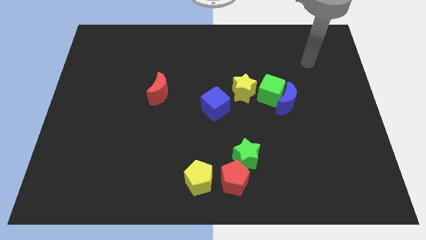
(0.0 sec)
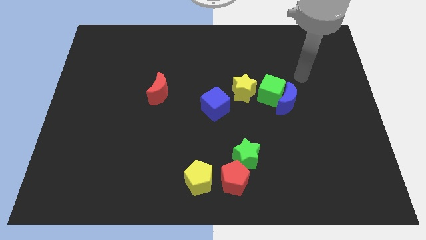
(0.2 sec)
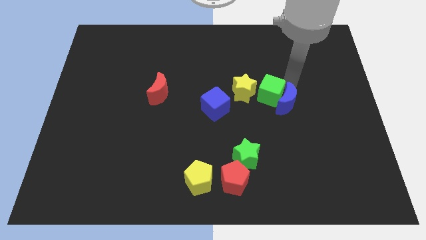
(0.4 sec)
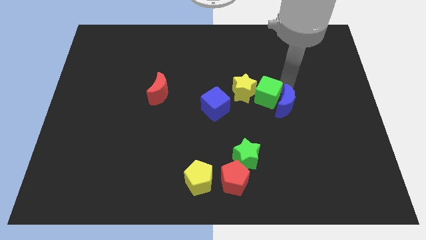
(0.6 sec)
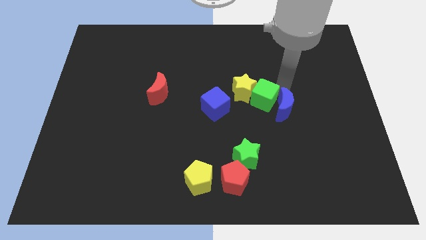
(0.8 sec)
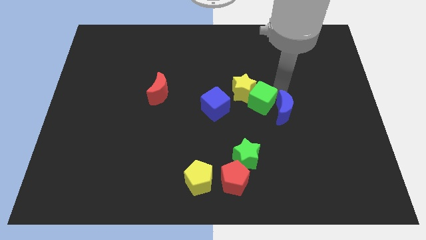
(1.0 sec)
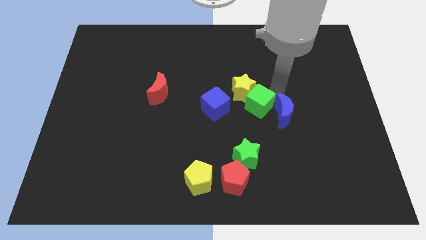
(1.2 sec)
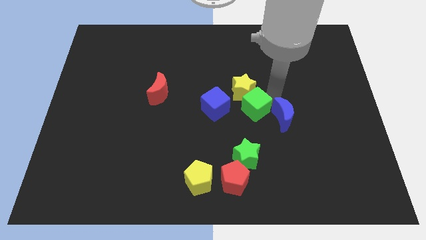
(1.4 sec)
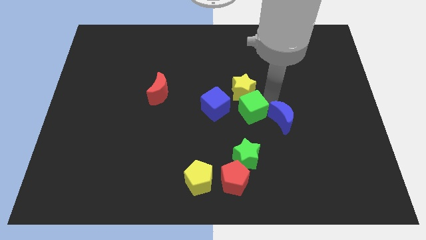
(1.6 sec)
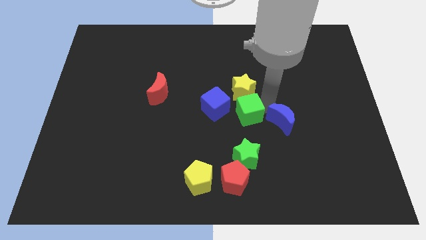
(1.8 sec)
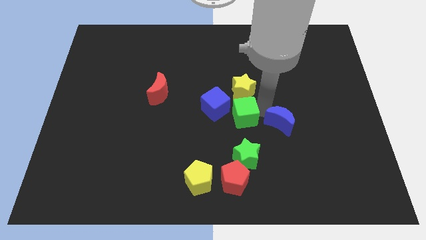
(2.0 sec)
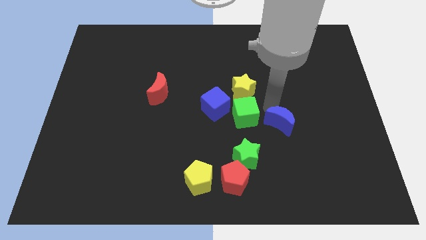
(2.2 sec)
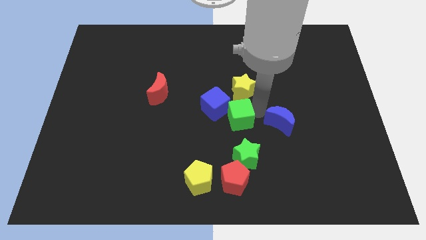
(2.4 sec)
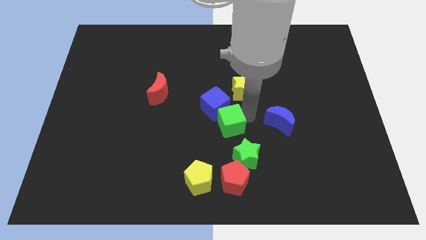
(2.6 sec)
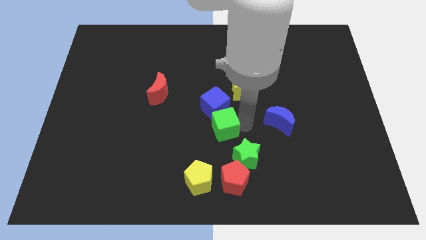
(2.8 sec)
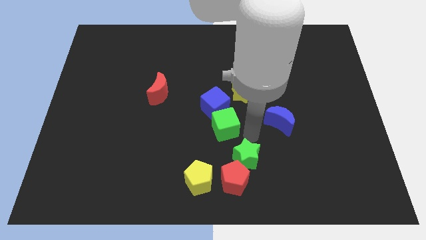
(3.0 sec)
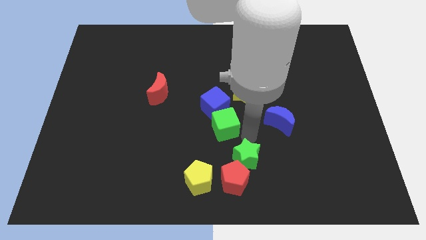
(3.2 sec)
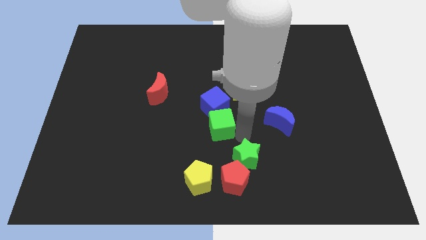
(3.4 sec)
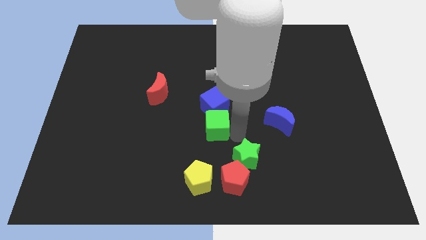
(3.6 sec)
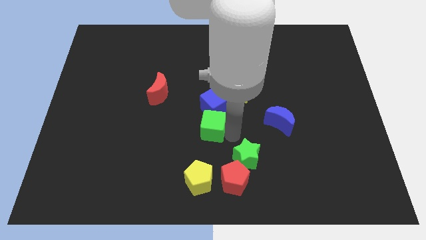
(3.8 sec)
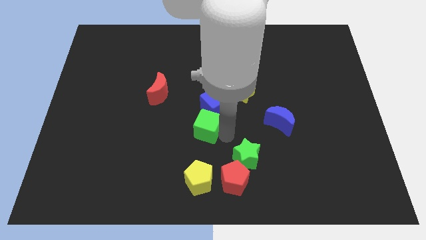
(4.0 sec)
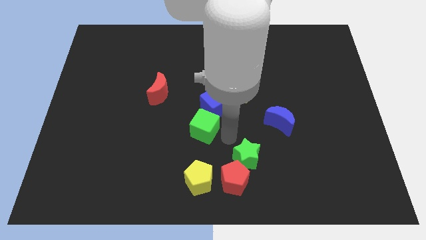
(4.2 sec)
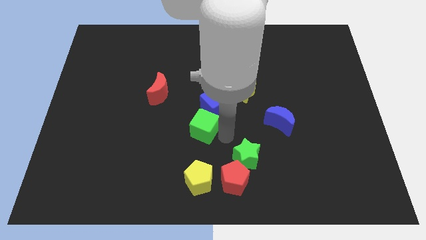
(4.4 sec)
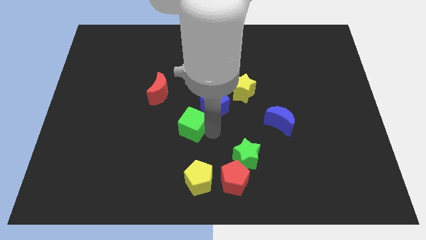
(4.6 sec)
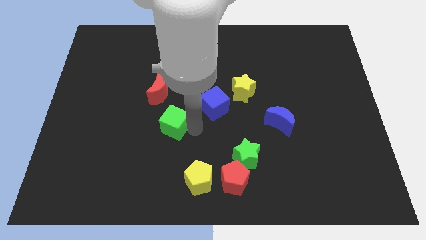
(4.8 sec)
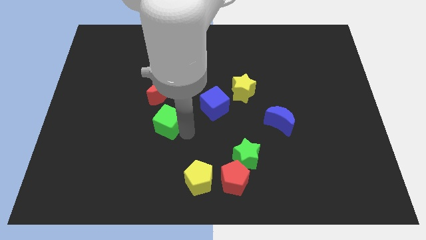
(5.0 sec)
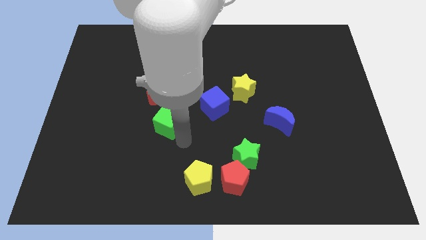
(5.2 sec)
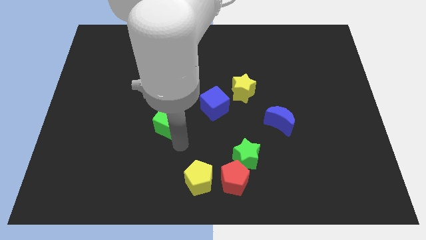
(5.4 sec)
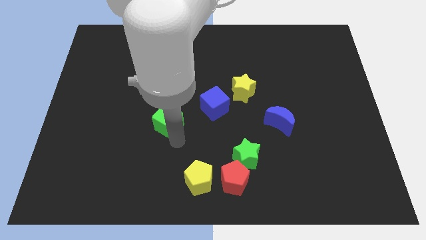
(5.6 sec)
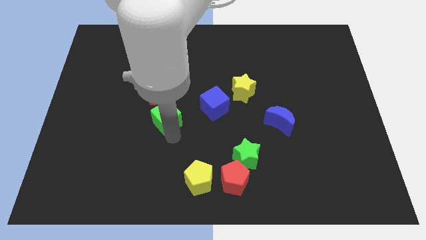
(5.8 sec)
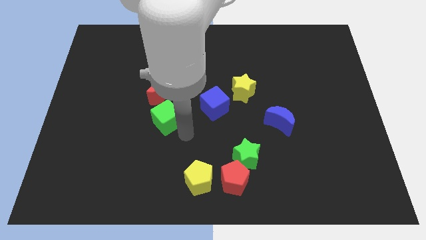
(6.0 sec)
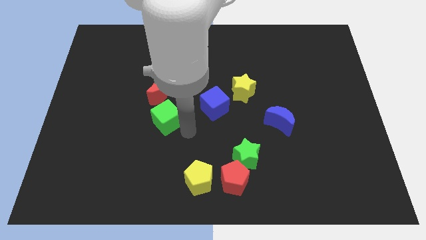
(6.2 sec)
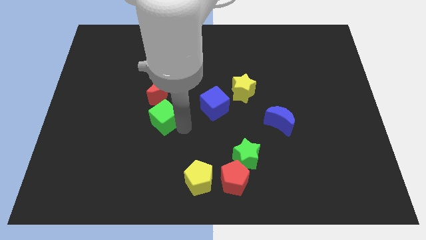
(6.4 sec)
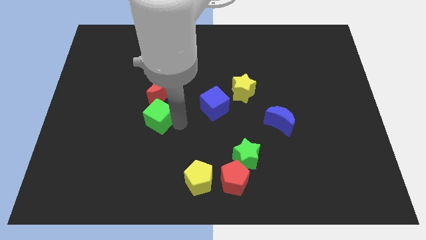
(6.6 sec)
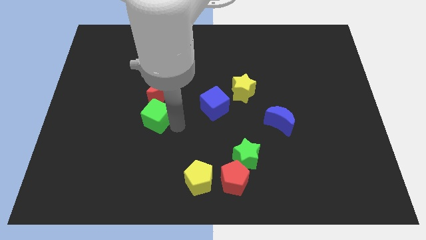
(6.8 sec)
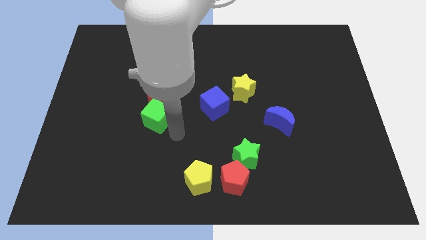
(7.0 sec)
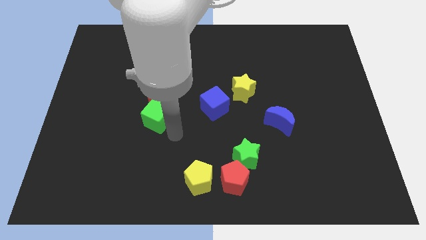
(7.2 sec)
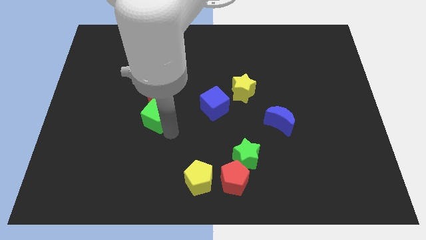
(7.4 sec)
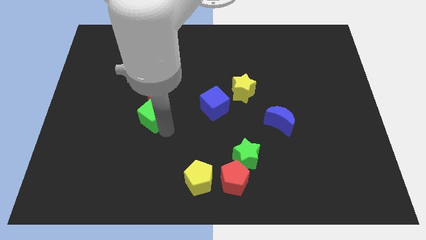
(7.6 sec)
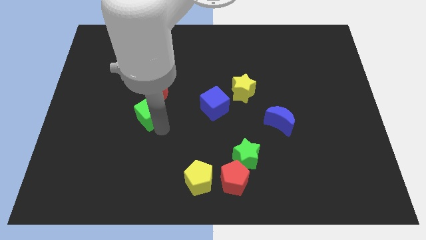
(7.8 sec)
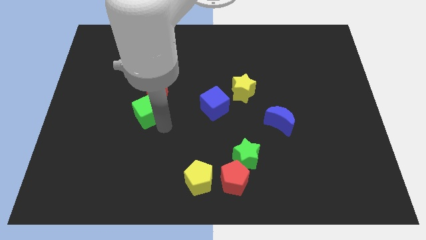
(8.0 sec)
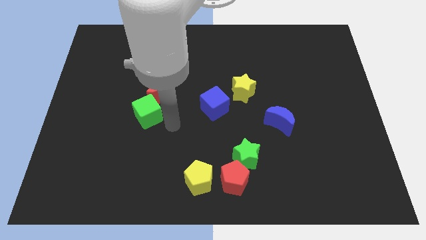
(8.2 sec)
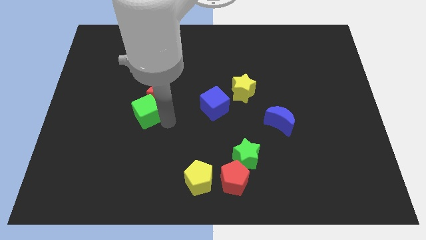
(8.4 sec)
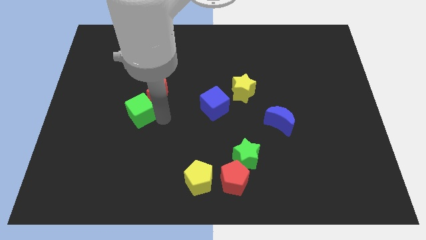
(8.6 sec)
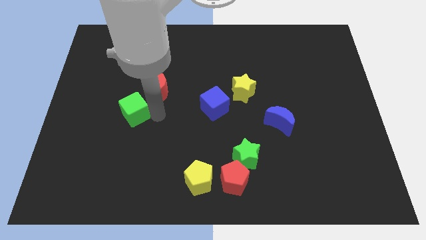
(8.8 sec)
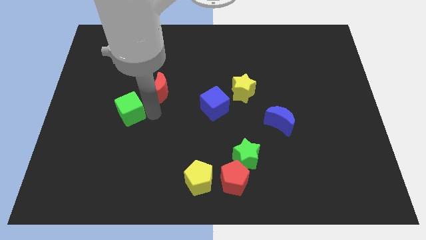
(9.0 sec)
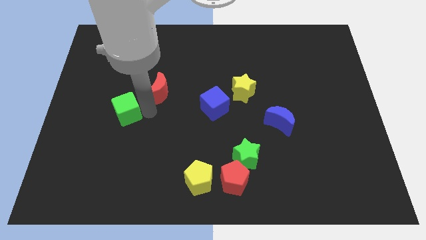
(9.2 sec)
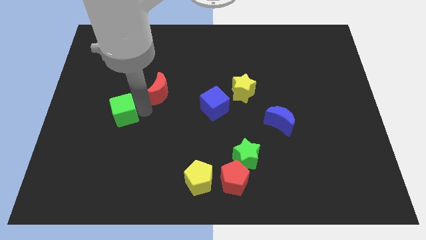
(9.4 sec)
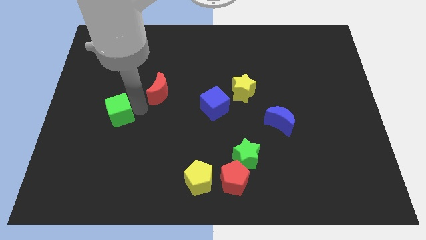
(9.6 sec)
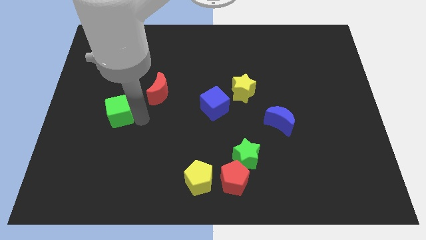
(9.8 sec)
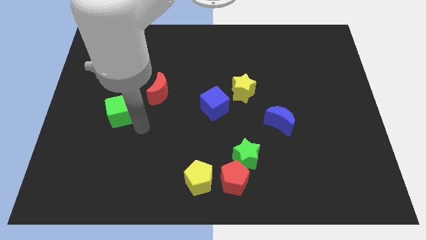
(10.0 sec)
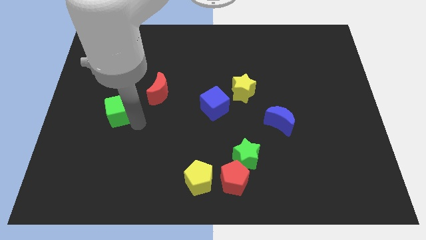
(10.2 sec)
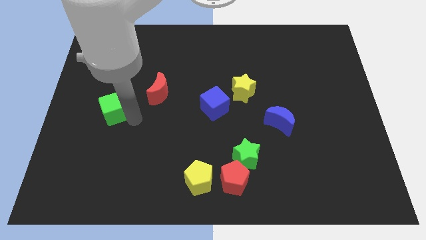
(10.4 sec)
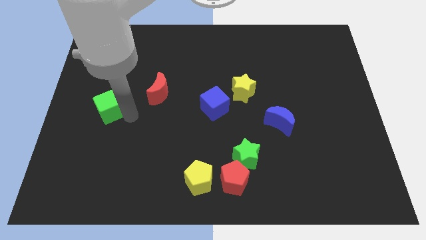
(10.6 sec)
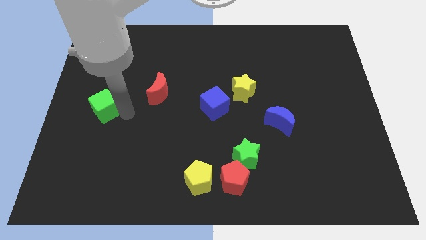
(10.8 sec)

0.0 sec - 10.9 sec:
move the green cube to the left side of the board

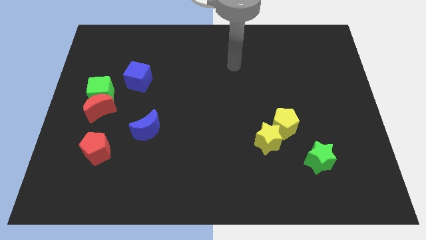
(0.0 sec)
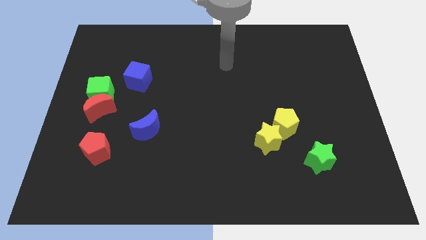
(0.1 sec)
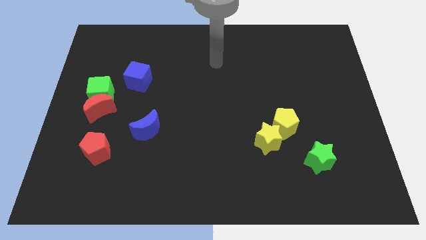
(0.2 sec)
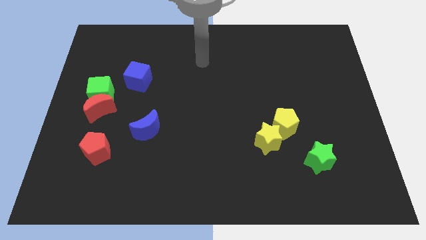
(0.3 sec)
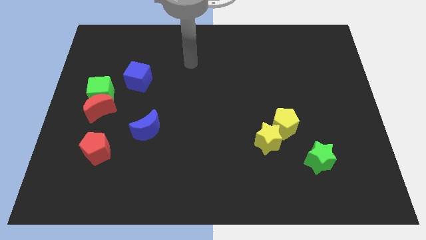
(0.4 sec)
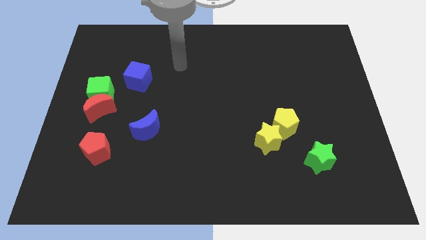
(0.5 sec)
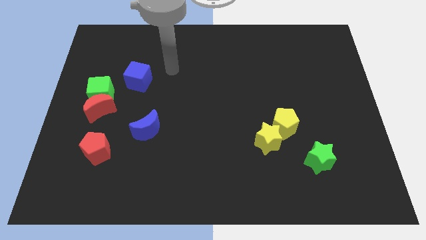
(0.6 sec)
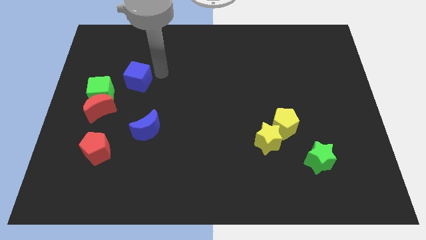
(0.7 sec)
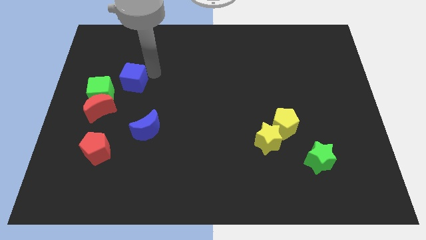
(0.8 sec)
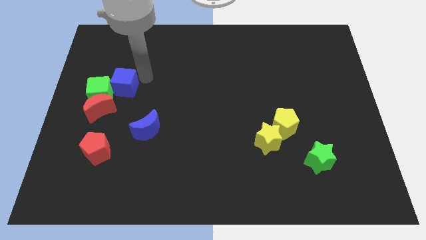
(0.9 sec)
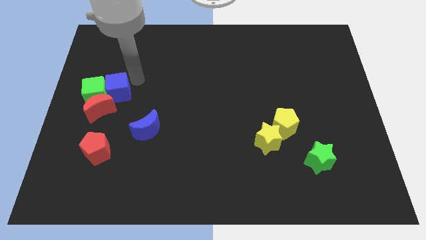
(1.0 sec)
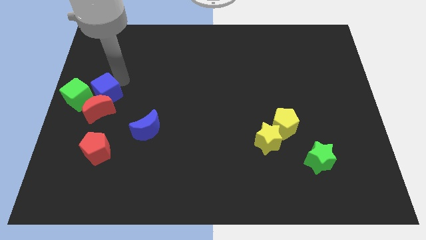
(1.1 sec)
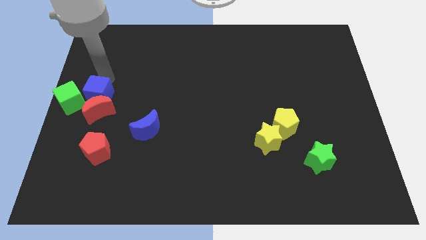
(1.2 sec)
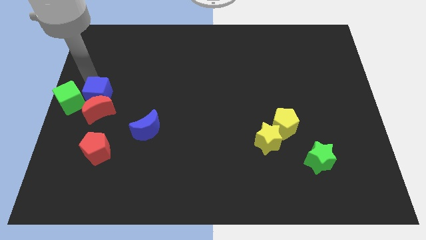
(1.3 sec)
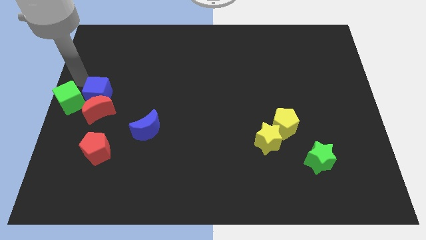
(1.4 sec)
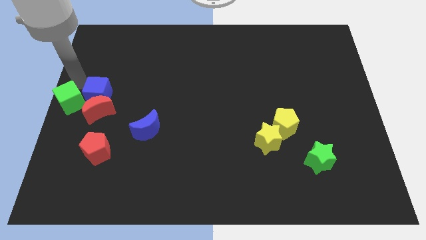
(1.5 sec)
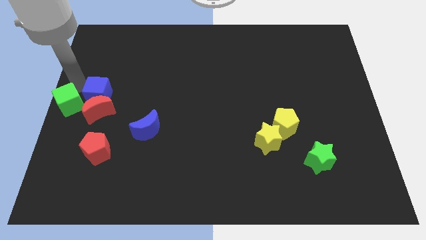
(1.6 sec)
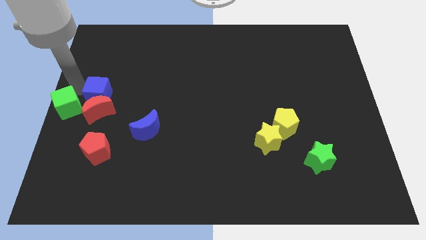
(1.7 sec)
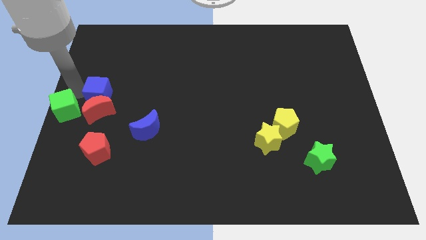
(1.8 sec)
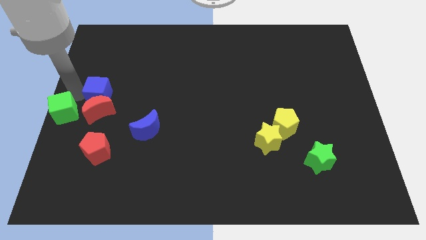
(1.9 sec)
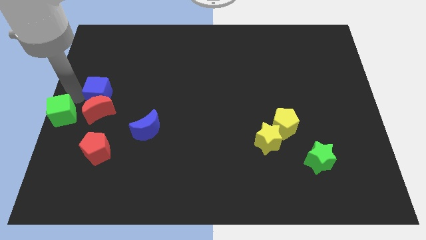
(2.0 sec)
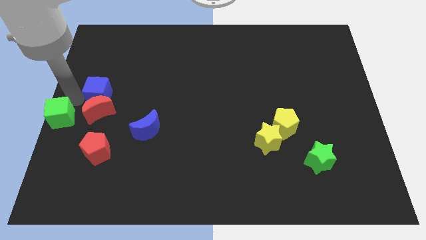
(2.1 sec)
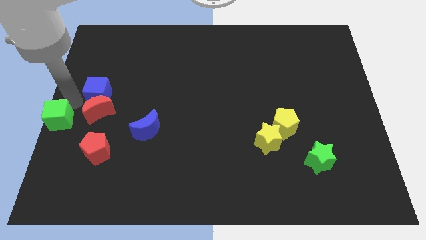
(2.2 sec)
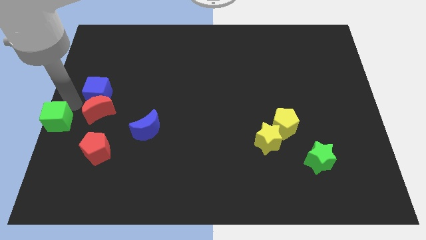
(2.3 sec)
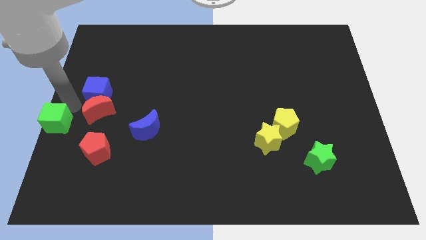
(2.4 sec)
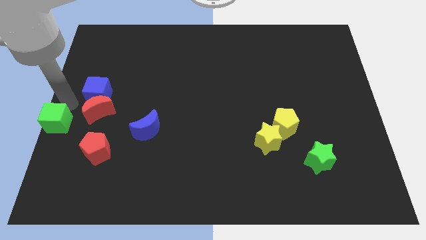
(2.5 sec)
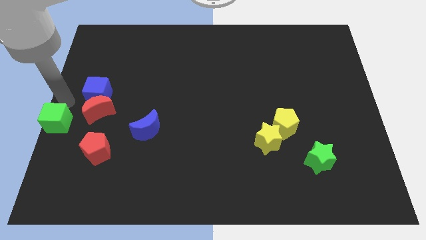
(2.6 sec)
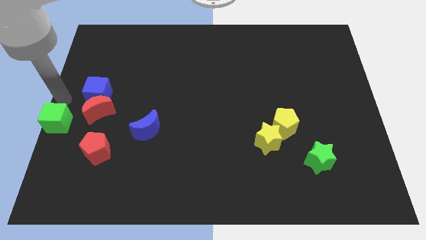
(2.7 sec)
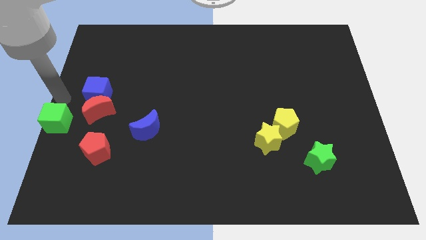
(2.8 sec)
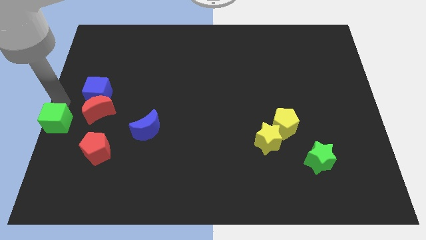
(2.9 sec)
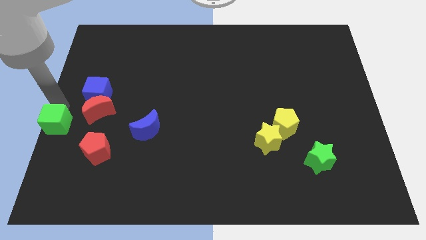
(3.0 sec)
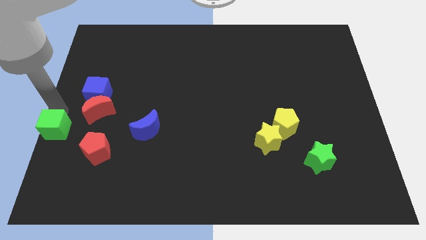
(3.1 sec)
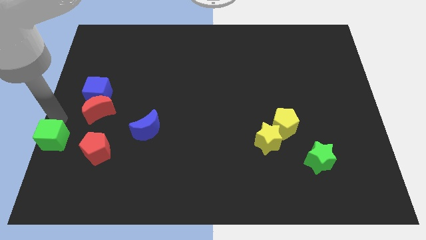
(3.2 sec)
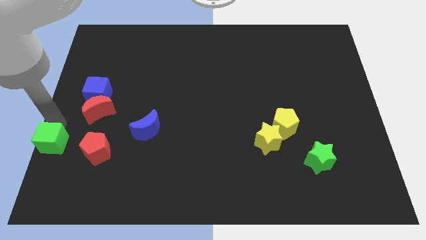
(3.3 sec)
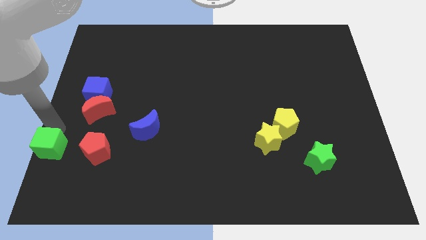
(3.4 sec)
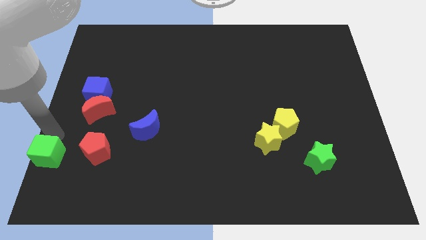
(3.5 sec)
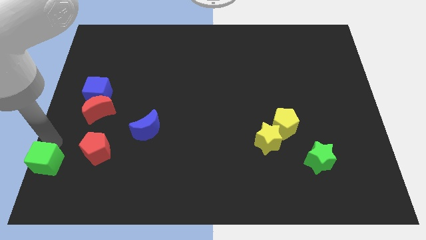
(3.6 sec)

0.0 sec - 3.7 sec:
push the green cube to the lower left corner
